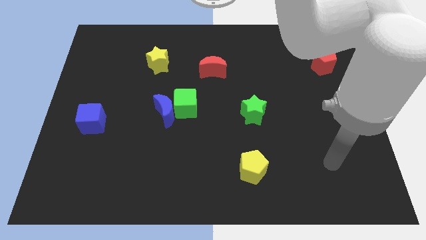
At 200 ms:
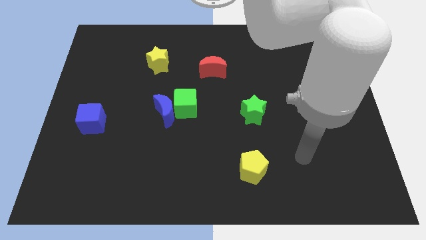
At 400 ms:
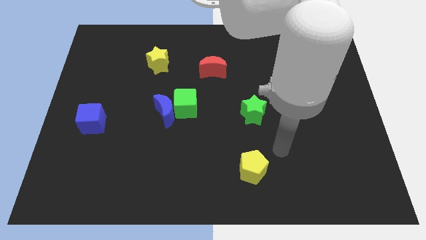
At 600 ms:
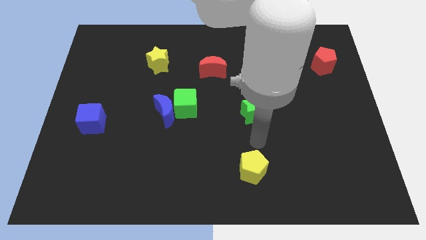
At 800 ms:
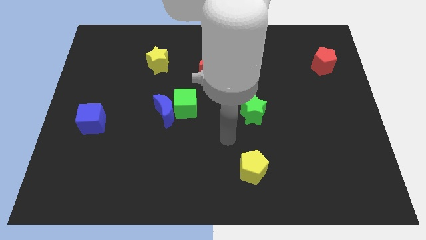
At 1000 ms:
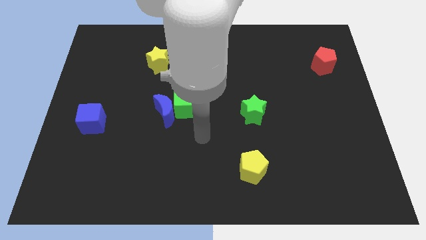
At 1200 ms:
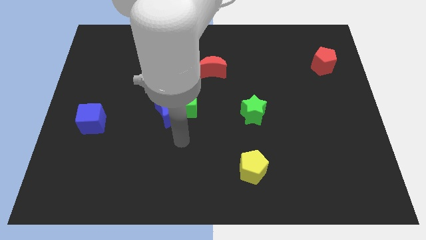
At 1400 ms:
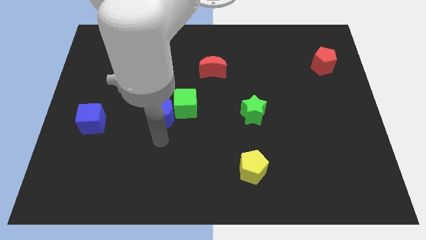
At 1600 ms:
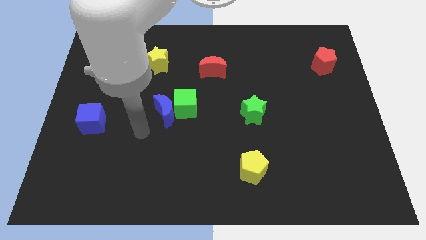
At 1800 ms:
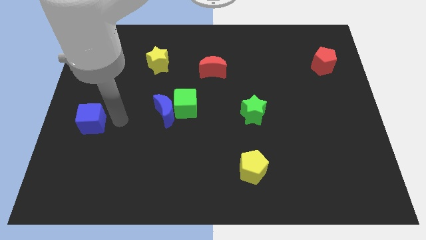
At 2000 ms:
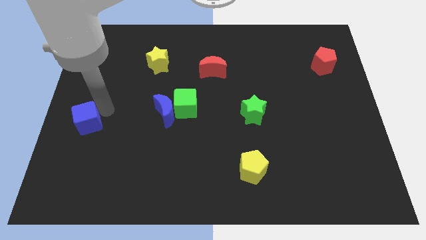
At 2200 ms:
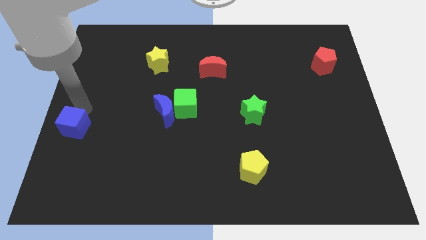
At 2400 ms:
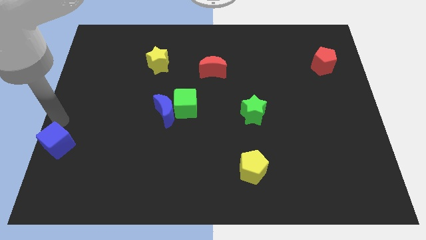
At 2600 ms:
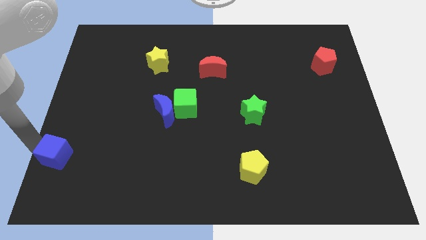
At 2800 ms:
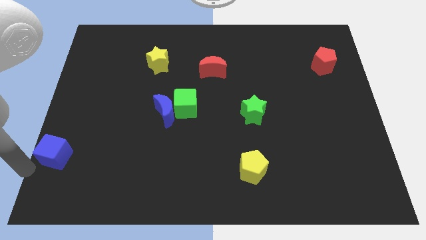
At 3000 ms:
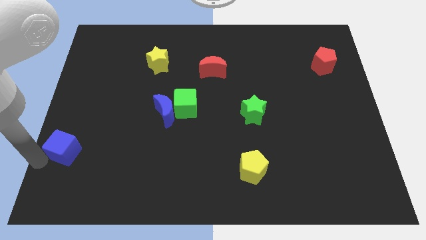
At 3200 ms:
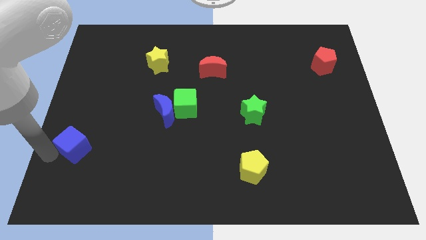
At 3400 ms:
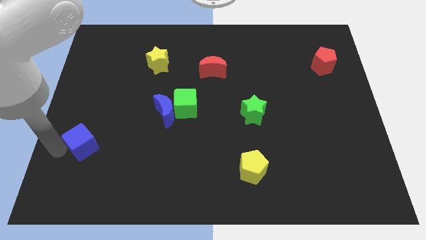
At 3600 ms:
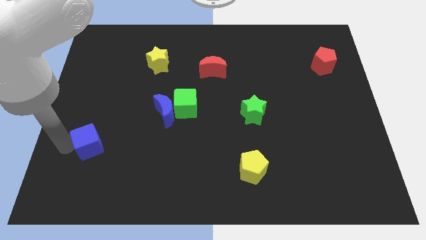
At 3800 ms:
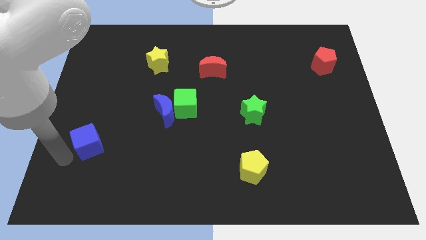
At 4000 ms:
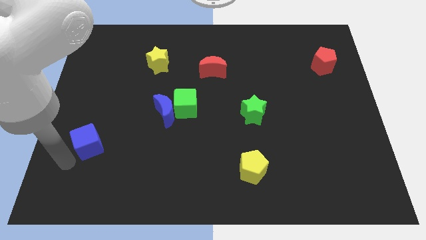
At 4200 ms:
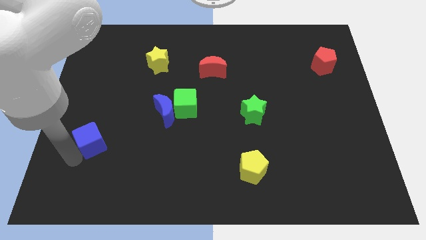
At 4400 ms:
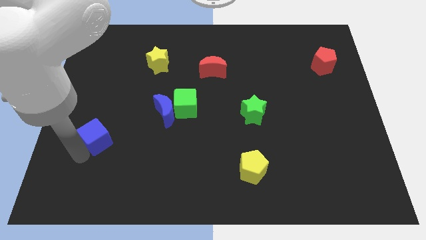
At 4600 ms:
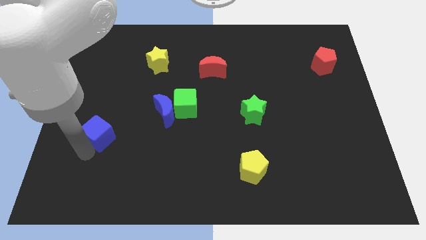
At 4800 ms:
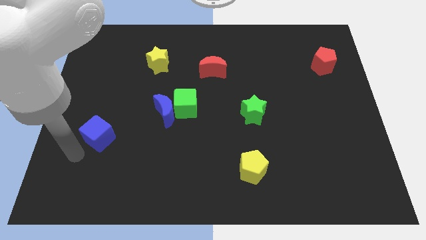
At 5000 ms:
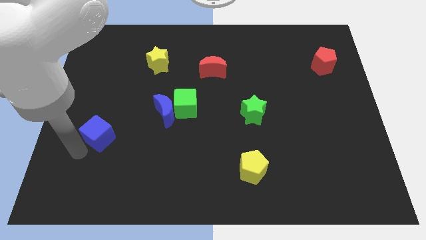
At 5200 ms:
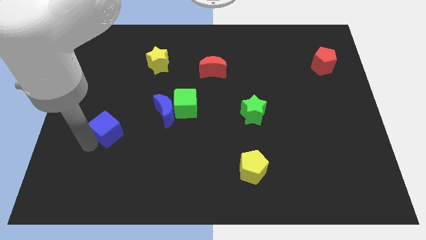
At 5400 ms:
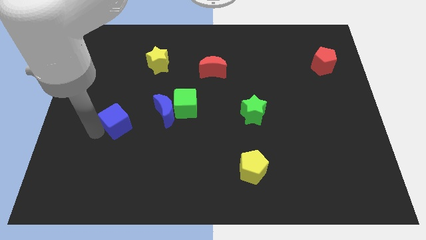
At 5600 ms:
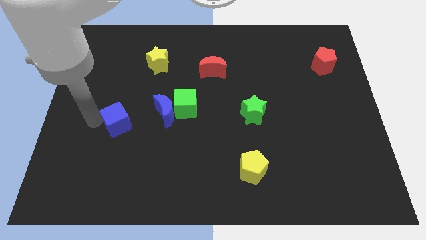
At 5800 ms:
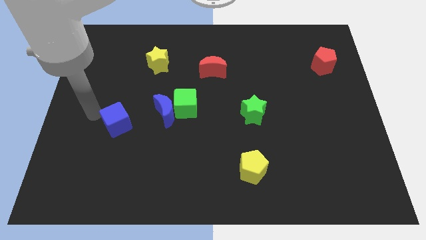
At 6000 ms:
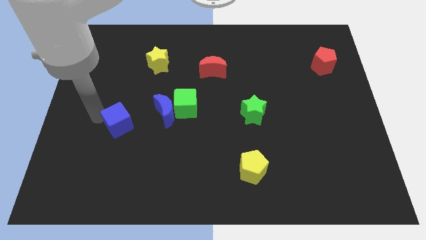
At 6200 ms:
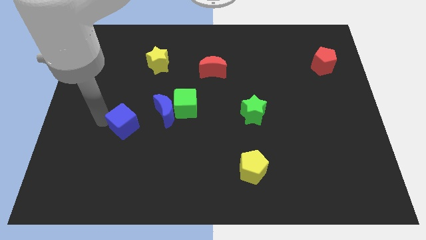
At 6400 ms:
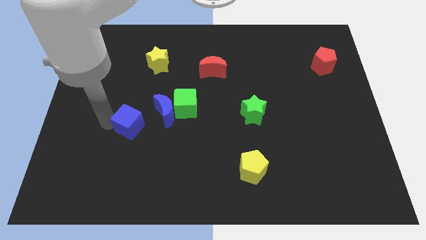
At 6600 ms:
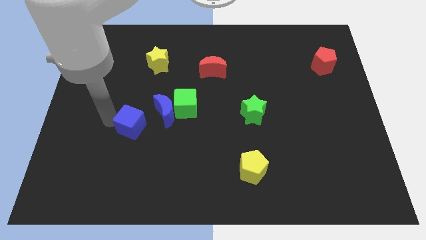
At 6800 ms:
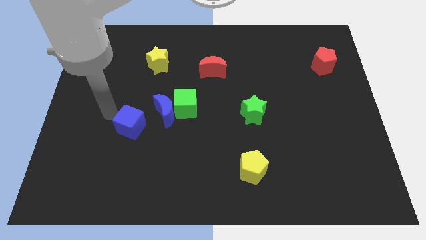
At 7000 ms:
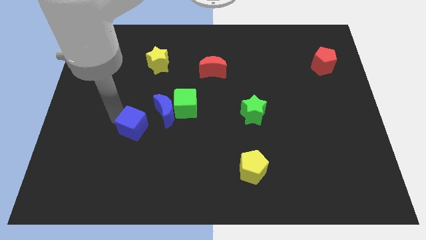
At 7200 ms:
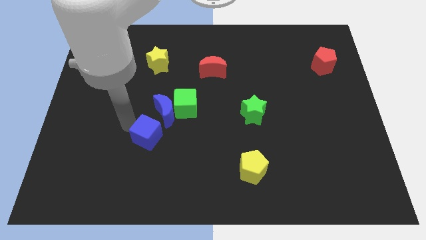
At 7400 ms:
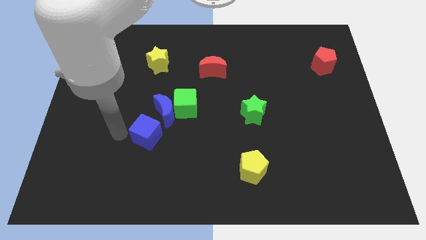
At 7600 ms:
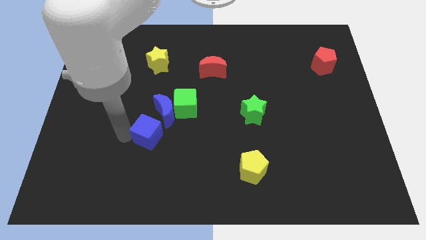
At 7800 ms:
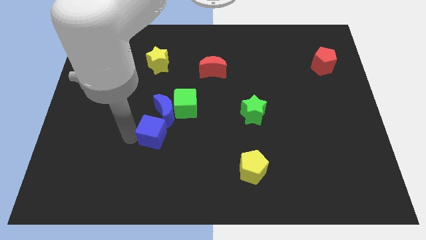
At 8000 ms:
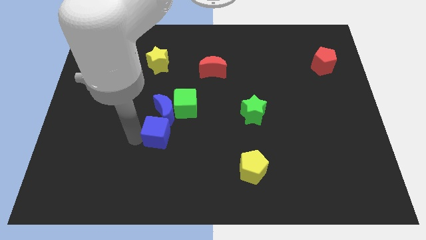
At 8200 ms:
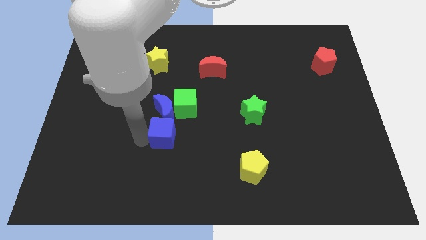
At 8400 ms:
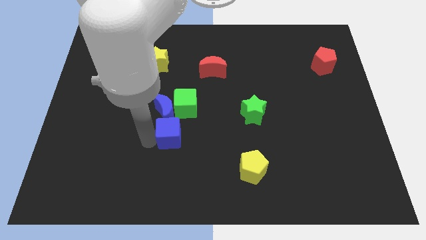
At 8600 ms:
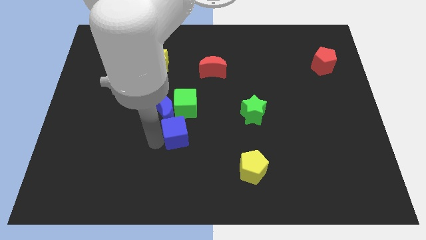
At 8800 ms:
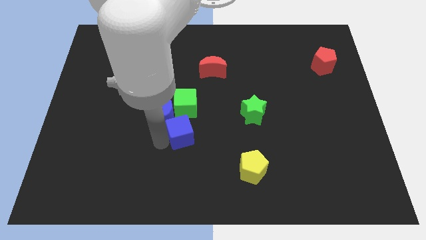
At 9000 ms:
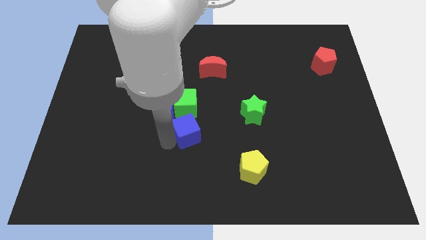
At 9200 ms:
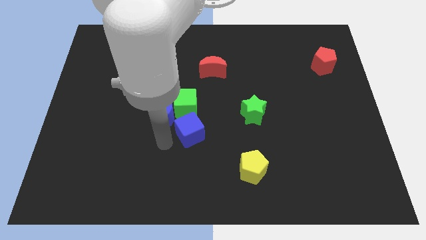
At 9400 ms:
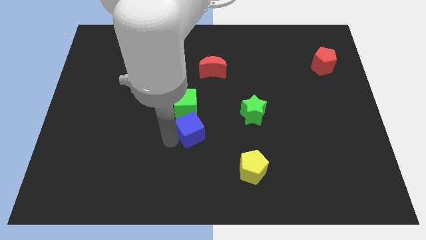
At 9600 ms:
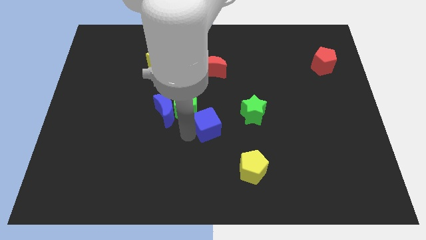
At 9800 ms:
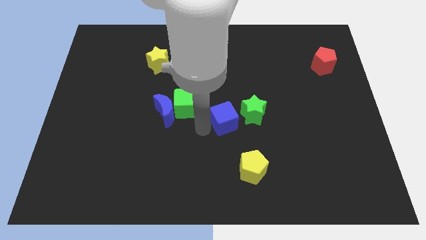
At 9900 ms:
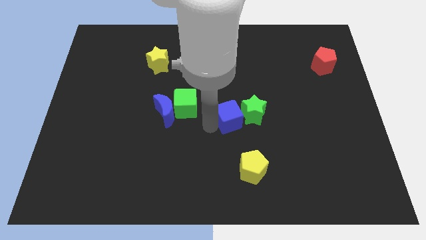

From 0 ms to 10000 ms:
slide the blue cube next to the green star

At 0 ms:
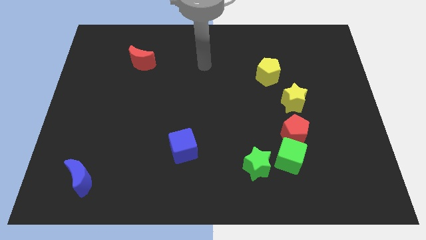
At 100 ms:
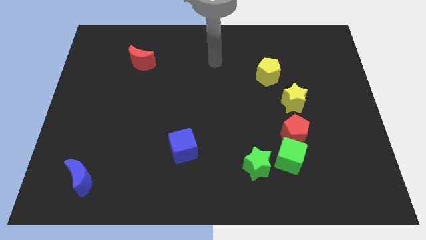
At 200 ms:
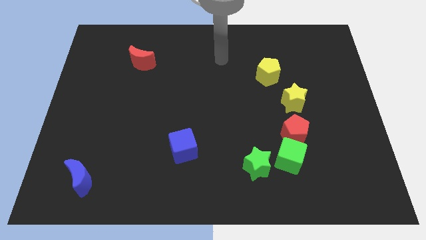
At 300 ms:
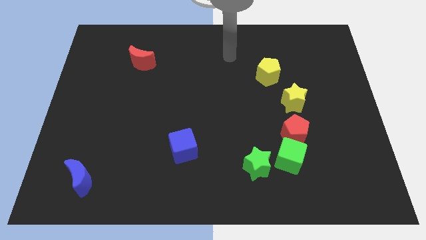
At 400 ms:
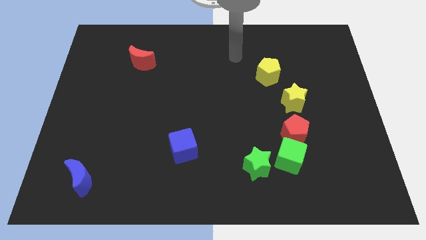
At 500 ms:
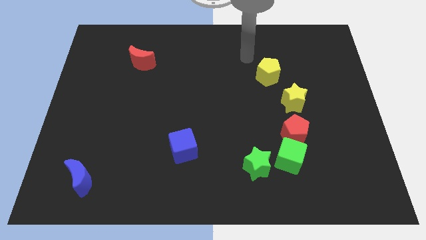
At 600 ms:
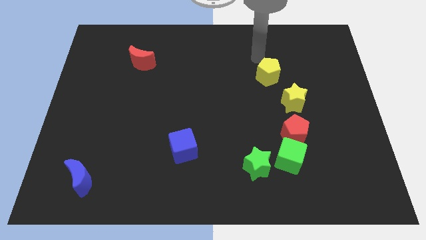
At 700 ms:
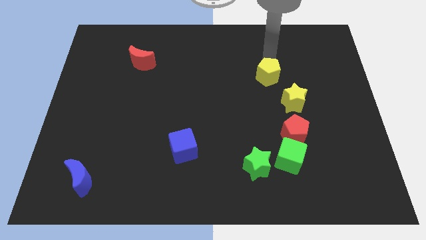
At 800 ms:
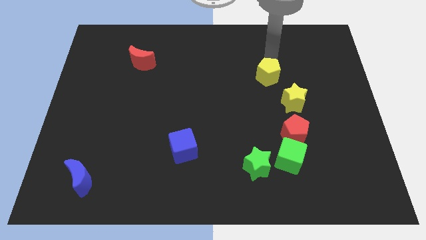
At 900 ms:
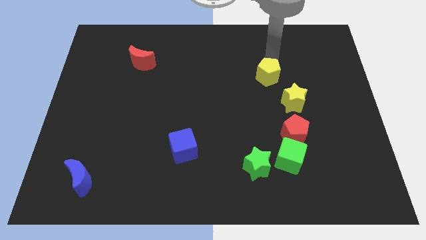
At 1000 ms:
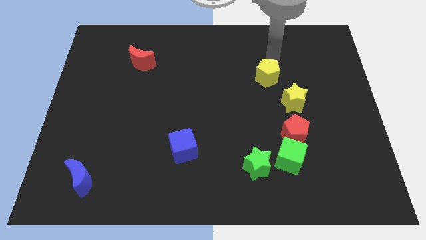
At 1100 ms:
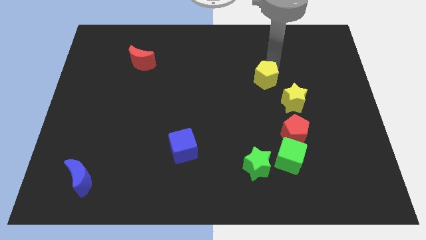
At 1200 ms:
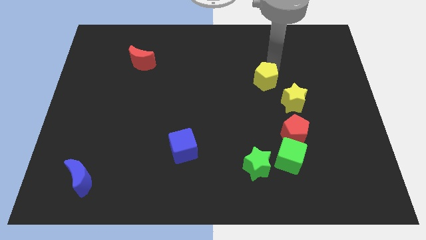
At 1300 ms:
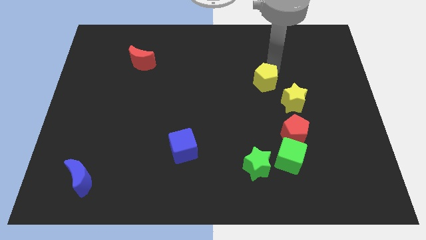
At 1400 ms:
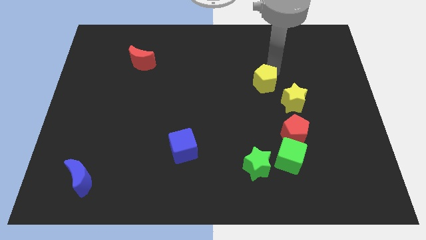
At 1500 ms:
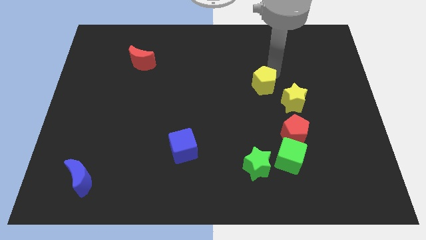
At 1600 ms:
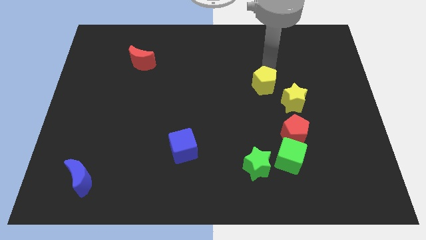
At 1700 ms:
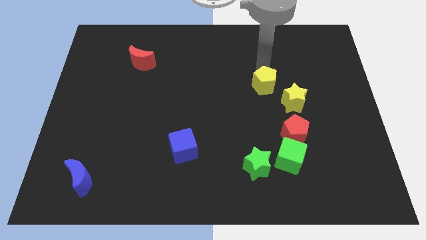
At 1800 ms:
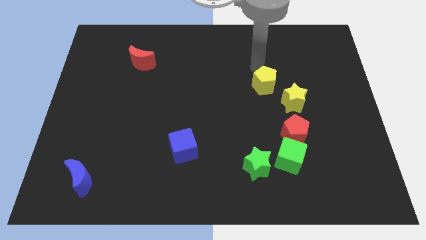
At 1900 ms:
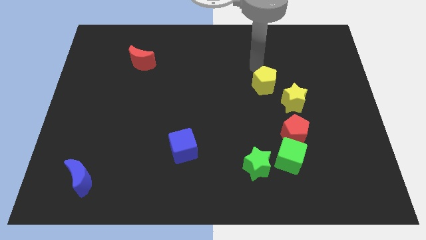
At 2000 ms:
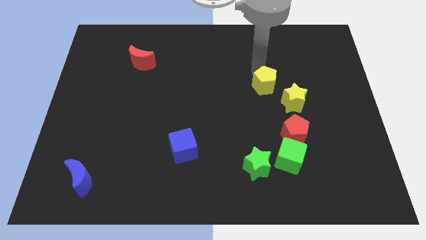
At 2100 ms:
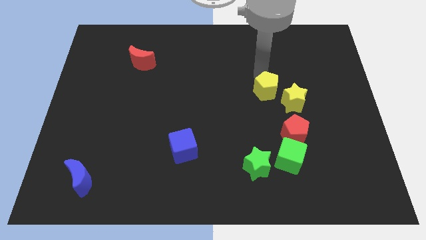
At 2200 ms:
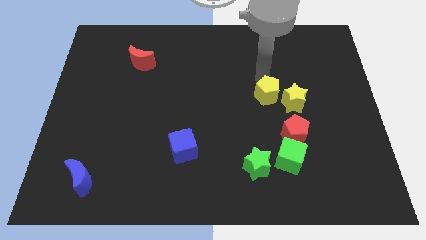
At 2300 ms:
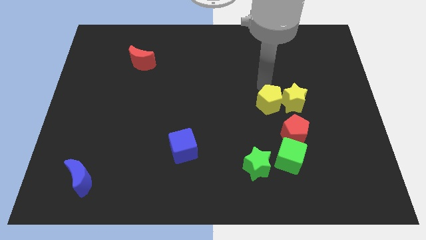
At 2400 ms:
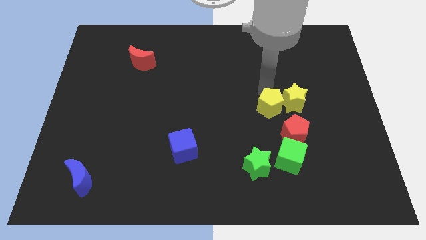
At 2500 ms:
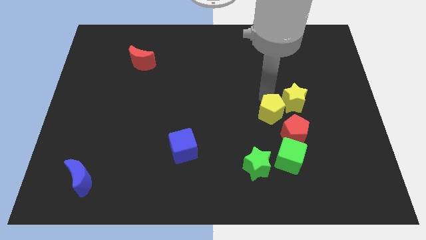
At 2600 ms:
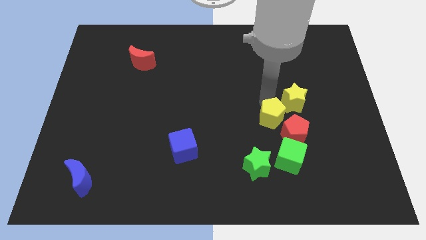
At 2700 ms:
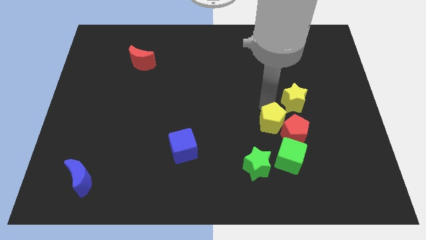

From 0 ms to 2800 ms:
slide the yellow pentagon to the red pentagon
